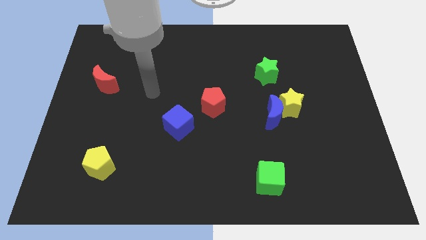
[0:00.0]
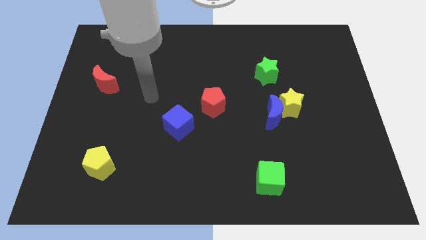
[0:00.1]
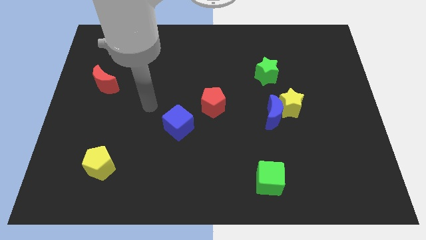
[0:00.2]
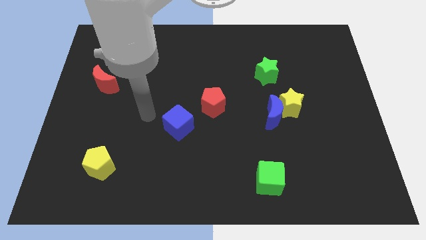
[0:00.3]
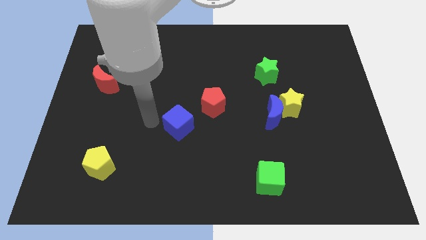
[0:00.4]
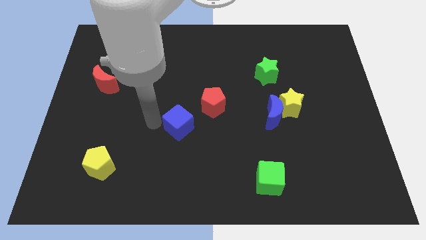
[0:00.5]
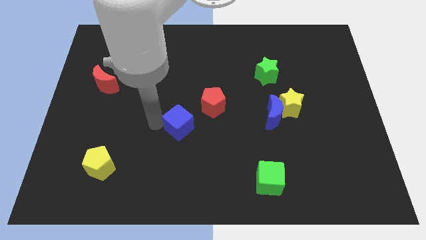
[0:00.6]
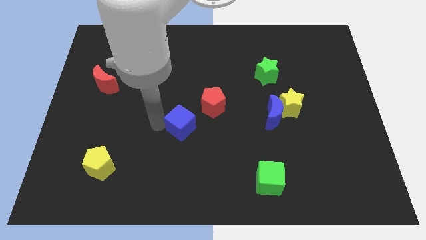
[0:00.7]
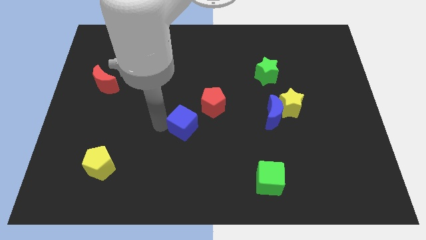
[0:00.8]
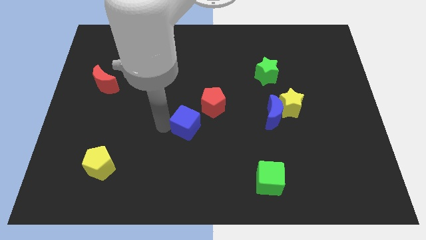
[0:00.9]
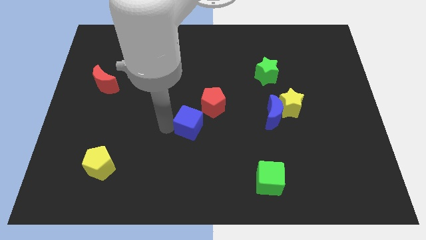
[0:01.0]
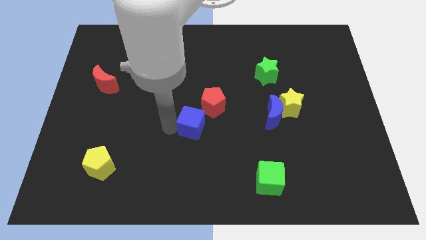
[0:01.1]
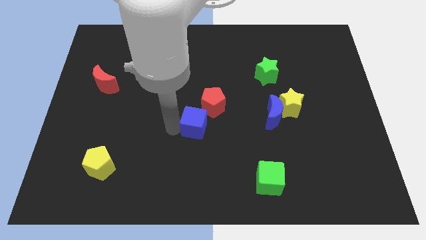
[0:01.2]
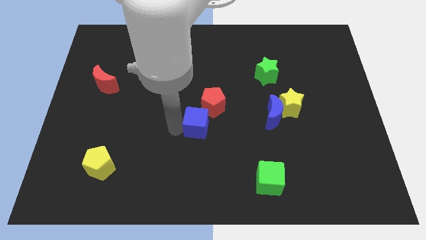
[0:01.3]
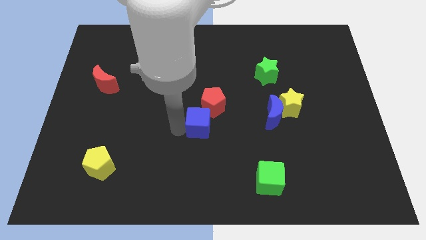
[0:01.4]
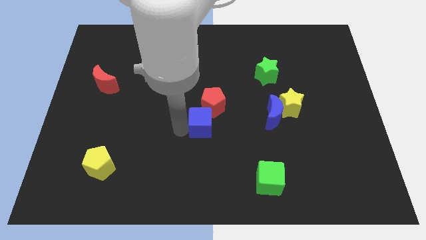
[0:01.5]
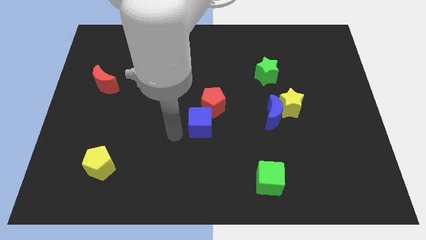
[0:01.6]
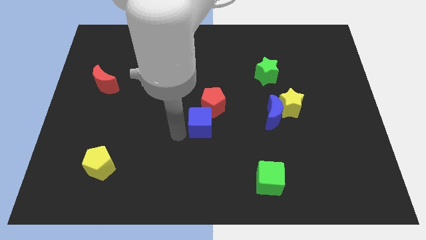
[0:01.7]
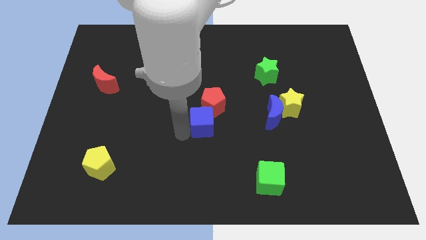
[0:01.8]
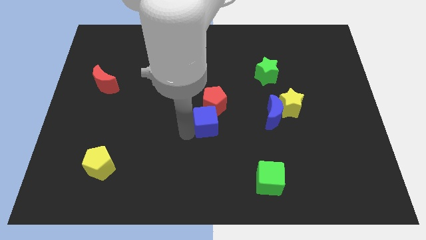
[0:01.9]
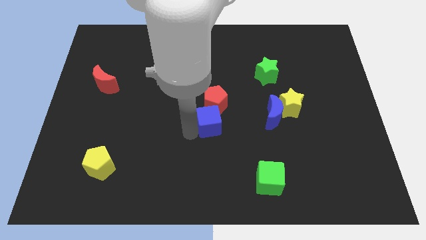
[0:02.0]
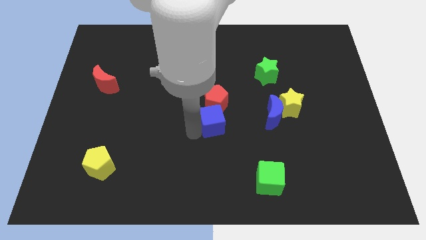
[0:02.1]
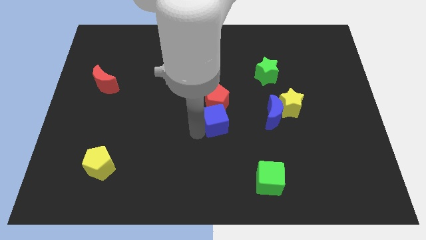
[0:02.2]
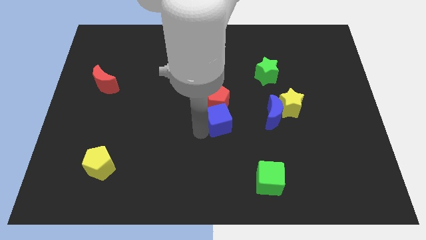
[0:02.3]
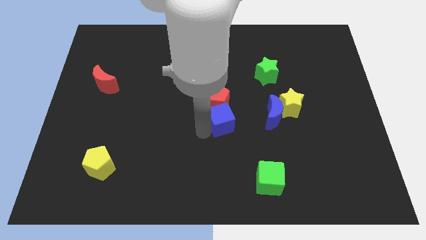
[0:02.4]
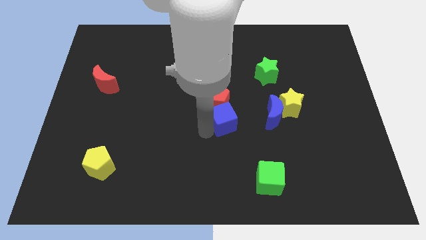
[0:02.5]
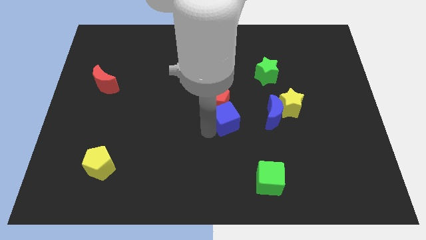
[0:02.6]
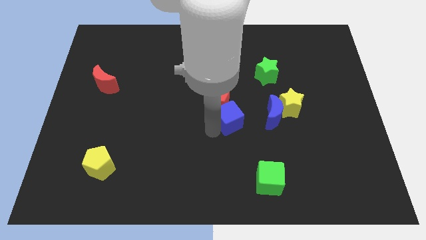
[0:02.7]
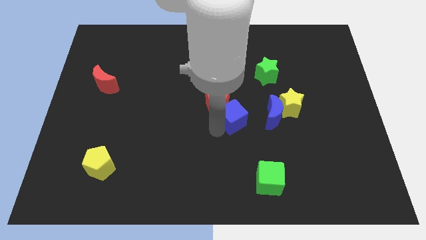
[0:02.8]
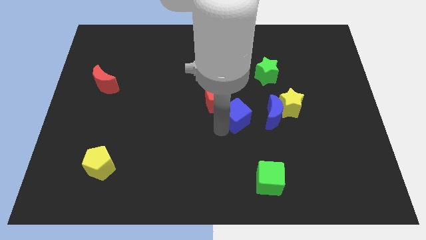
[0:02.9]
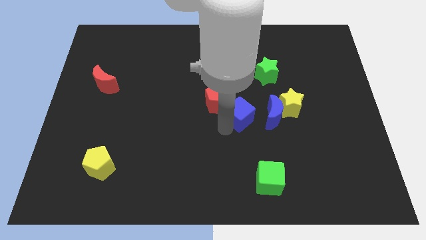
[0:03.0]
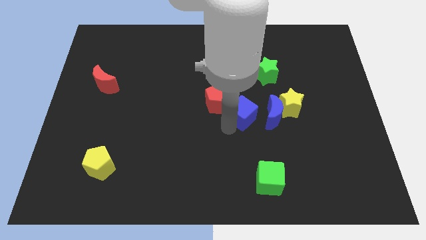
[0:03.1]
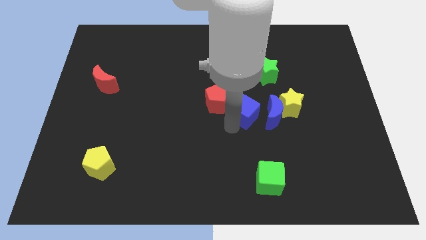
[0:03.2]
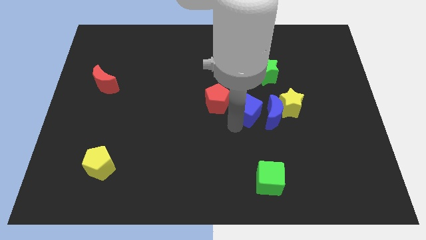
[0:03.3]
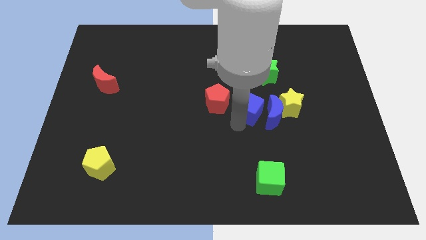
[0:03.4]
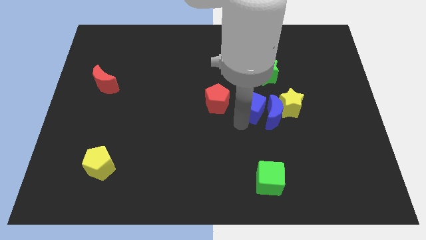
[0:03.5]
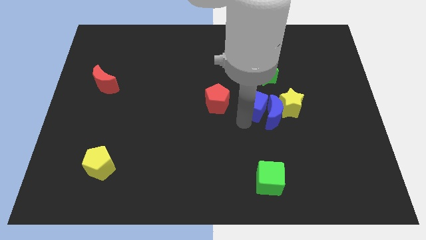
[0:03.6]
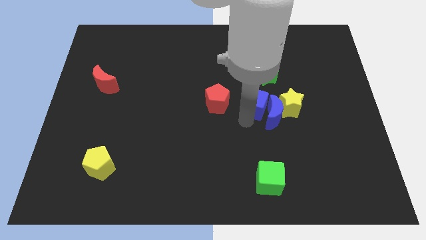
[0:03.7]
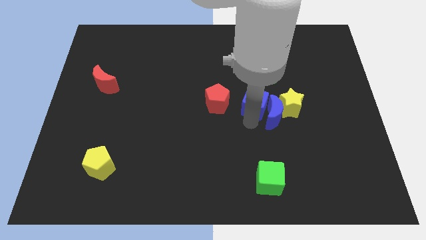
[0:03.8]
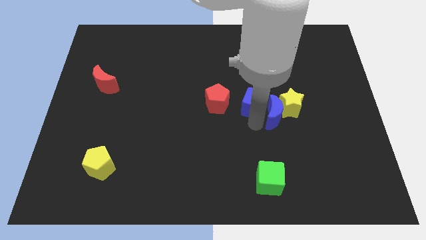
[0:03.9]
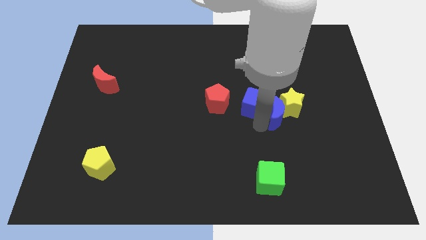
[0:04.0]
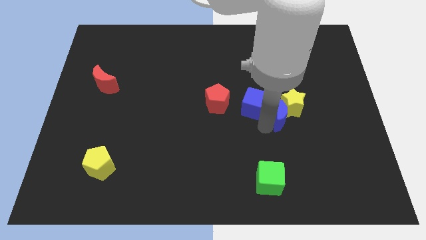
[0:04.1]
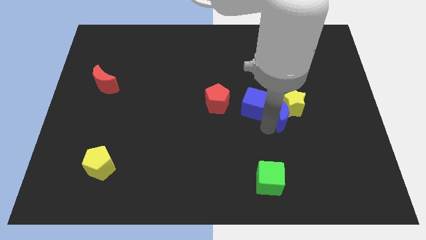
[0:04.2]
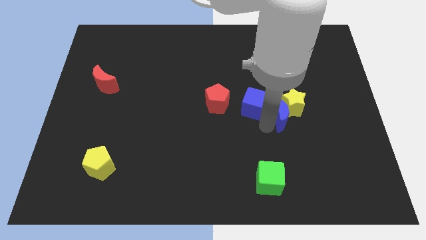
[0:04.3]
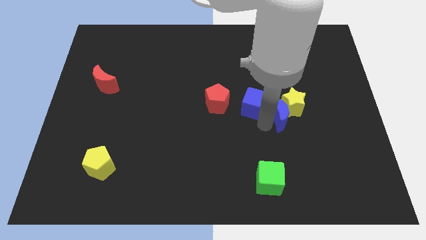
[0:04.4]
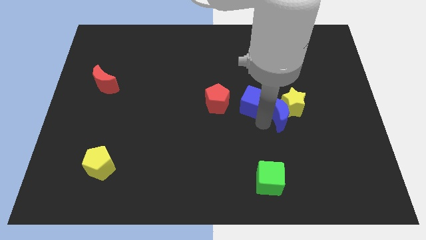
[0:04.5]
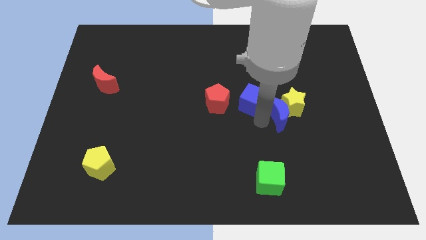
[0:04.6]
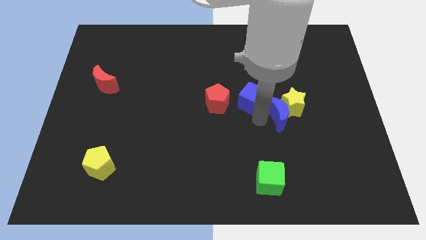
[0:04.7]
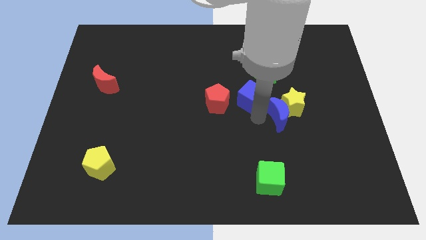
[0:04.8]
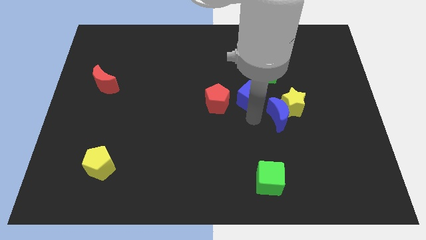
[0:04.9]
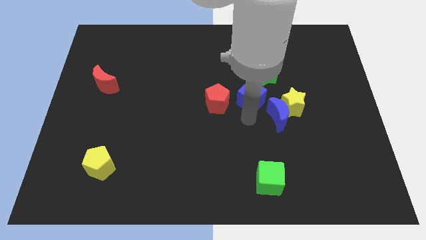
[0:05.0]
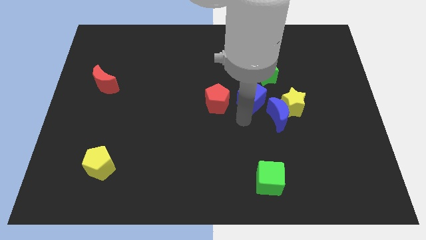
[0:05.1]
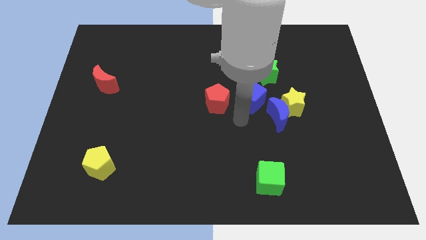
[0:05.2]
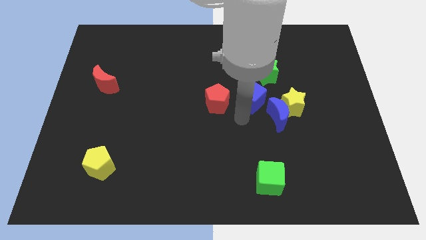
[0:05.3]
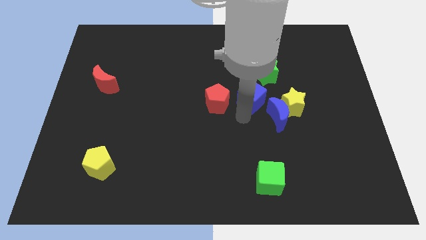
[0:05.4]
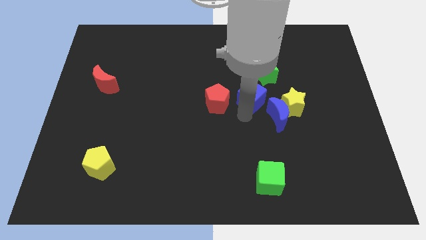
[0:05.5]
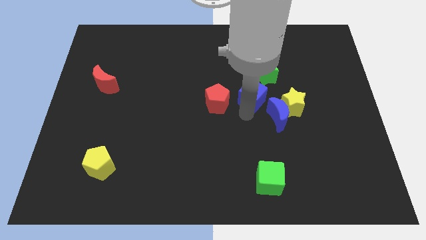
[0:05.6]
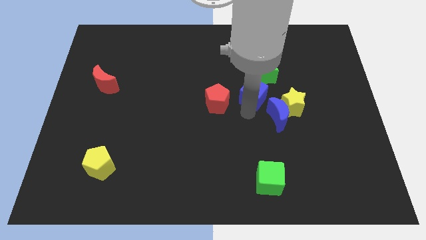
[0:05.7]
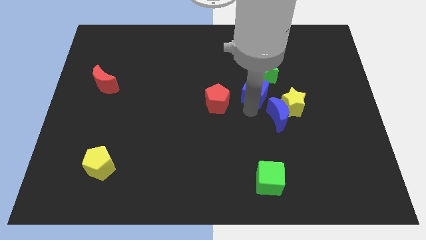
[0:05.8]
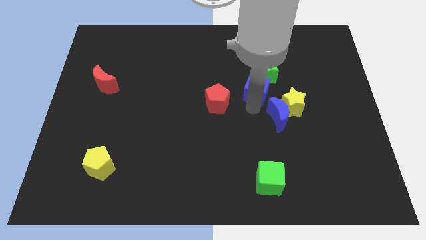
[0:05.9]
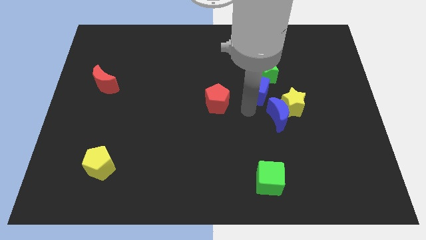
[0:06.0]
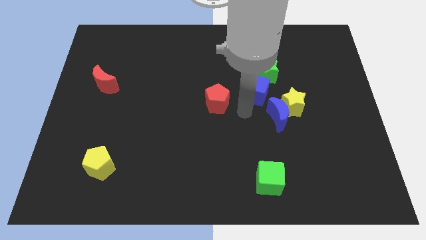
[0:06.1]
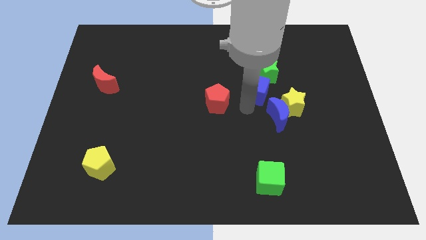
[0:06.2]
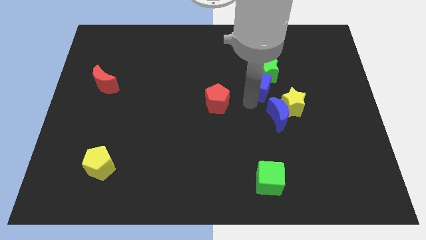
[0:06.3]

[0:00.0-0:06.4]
push the blue cube to the green star

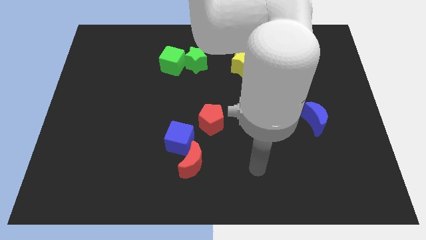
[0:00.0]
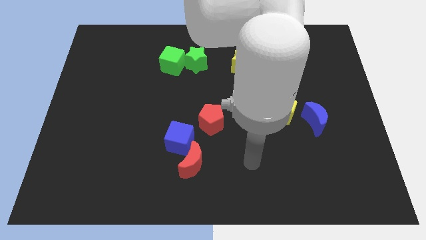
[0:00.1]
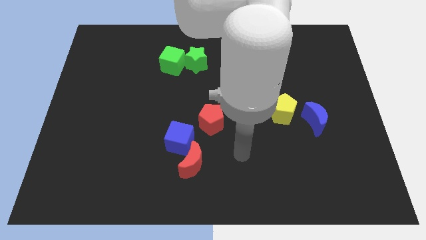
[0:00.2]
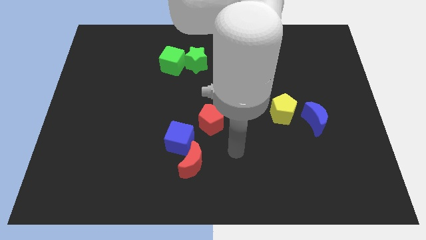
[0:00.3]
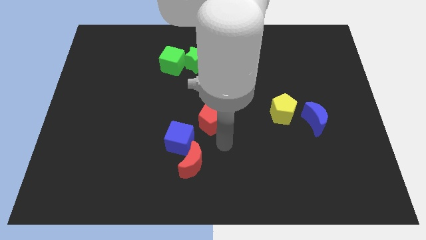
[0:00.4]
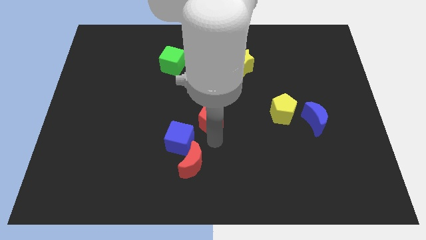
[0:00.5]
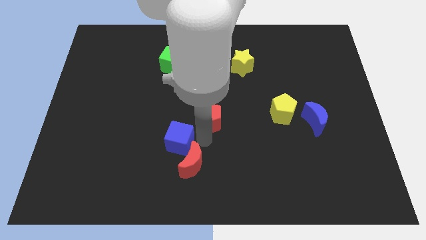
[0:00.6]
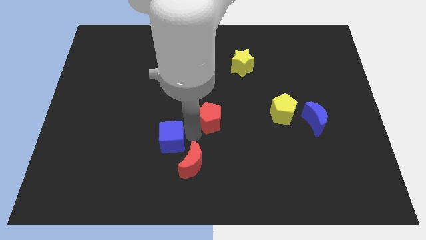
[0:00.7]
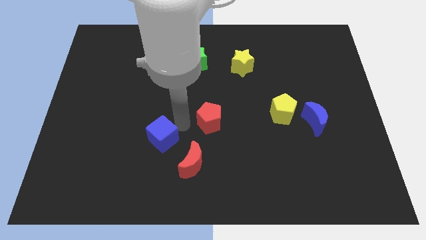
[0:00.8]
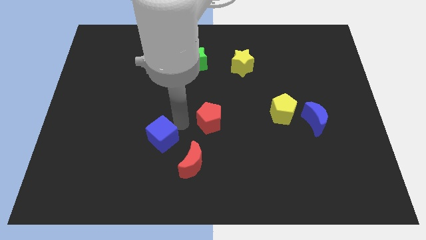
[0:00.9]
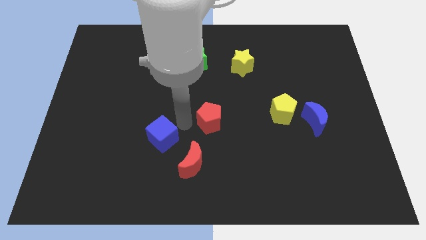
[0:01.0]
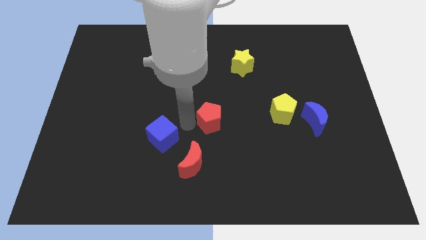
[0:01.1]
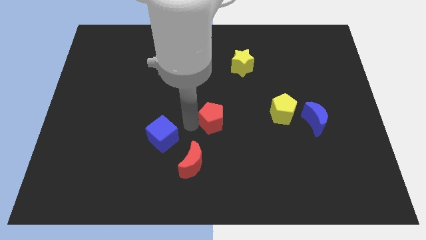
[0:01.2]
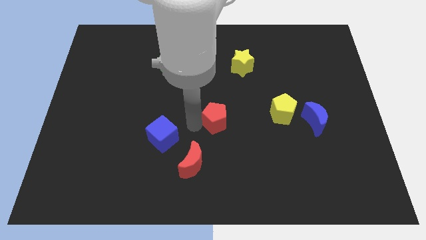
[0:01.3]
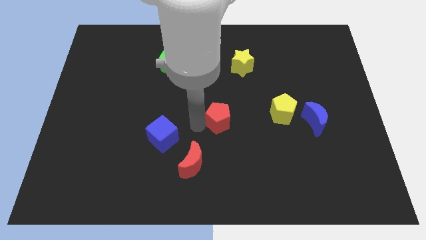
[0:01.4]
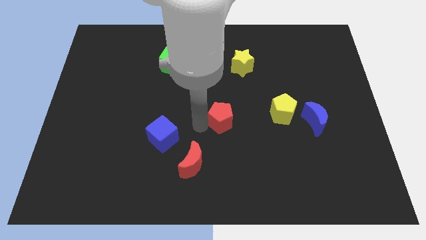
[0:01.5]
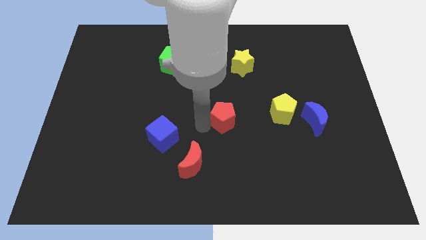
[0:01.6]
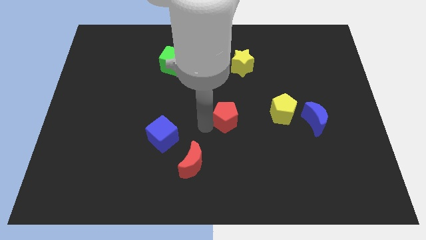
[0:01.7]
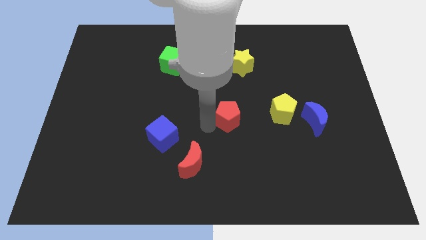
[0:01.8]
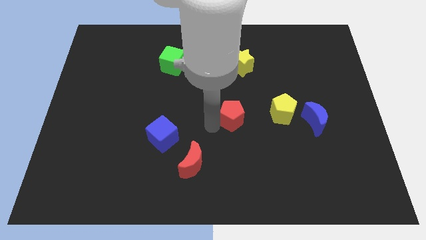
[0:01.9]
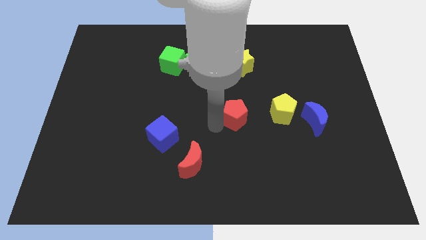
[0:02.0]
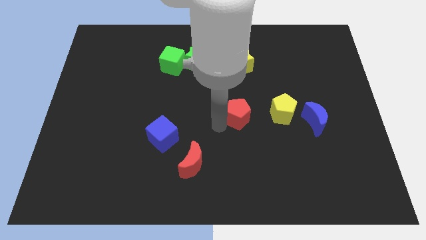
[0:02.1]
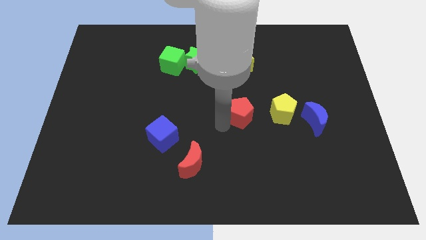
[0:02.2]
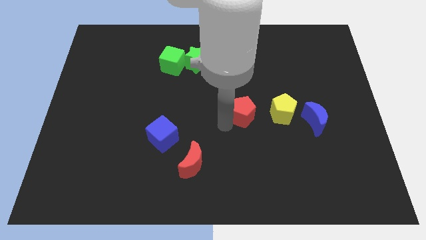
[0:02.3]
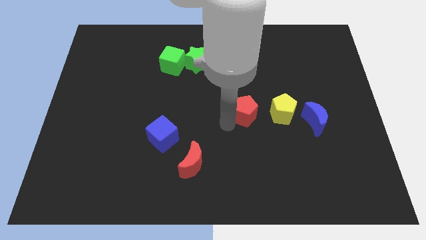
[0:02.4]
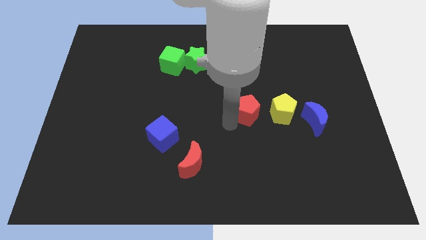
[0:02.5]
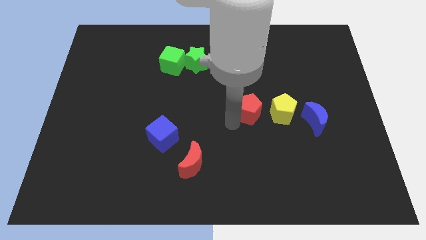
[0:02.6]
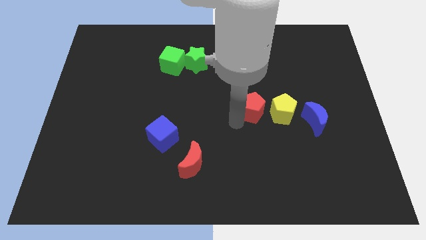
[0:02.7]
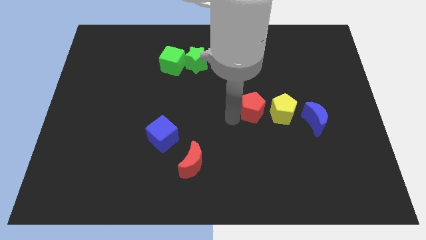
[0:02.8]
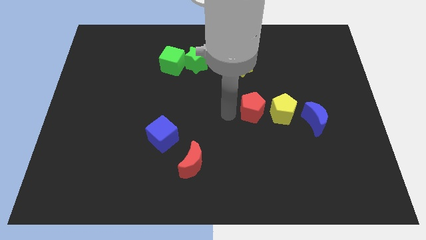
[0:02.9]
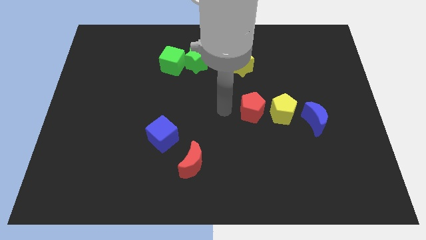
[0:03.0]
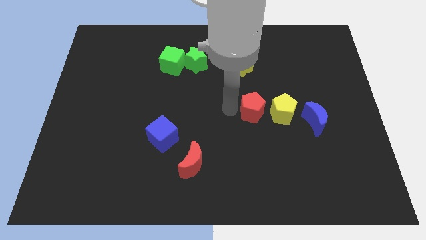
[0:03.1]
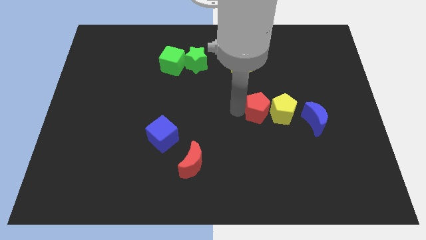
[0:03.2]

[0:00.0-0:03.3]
put the red pentagon next to the yellow pentagon
